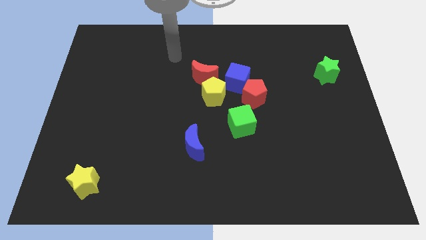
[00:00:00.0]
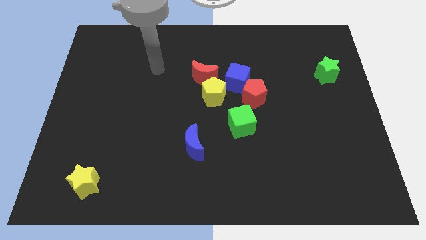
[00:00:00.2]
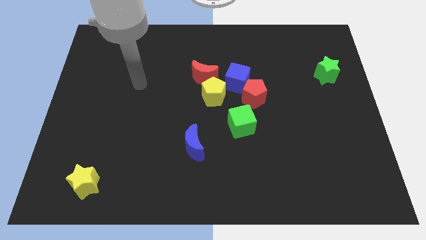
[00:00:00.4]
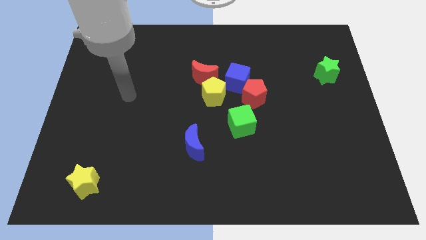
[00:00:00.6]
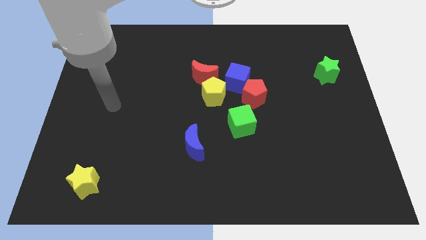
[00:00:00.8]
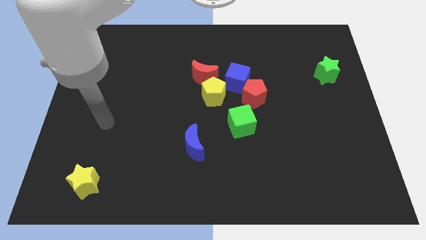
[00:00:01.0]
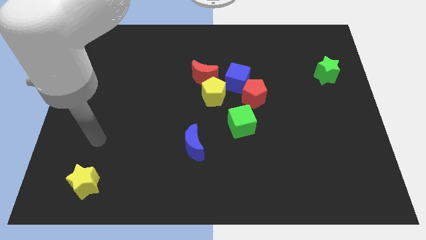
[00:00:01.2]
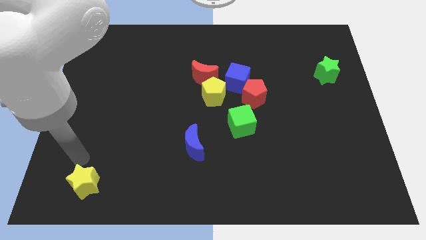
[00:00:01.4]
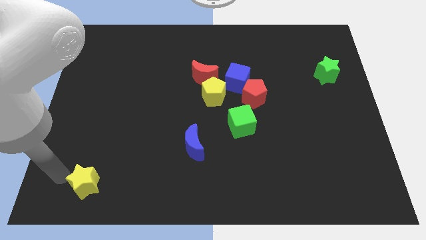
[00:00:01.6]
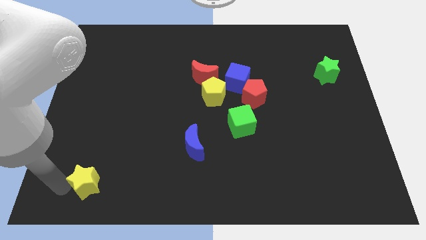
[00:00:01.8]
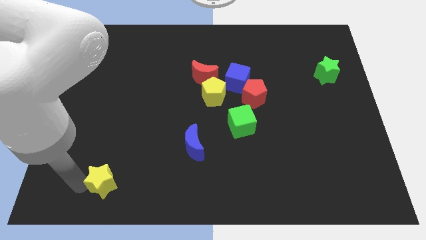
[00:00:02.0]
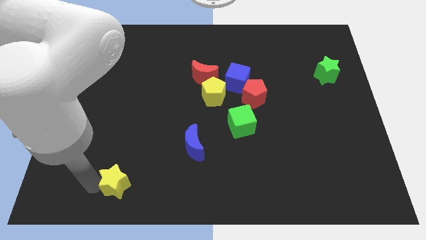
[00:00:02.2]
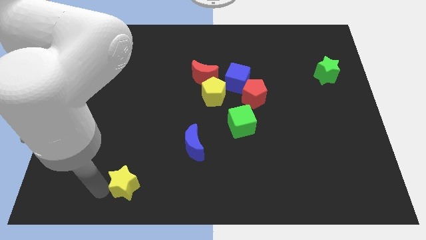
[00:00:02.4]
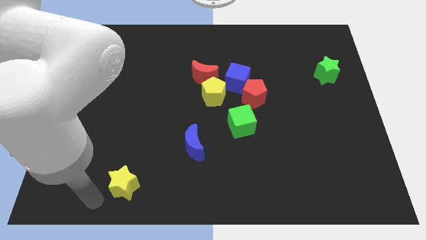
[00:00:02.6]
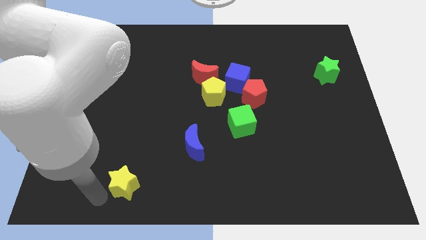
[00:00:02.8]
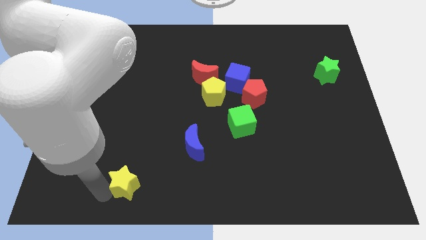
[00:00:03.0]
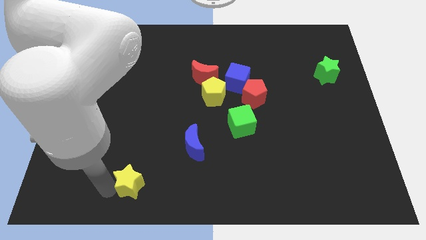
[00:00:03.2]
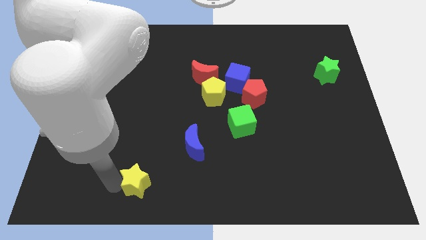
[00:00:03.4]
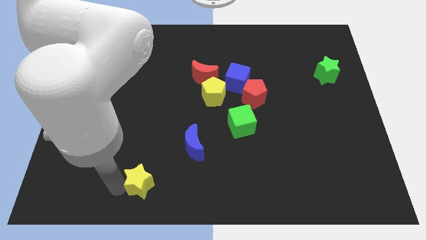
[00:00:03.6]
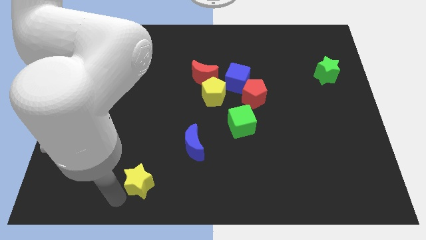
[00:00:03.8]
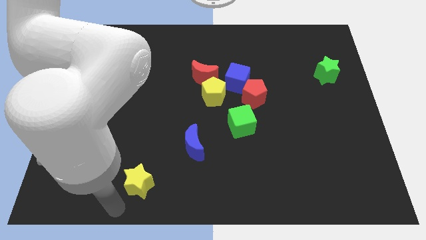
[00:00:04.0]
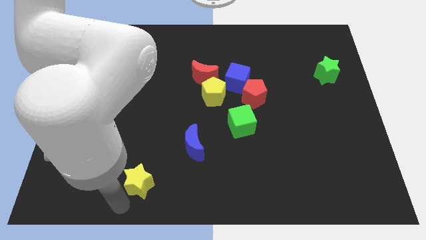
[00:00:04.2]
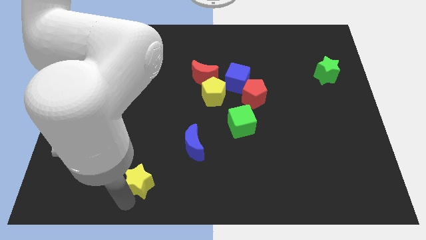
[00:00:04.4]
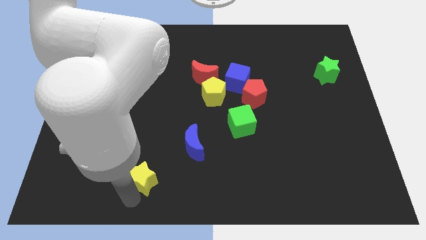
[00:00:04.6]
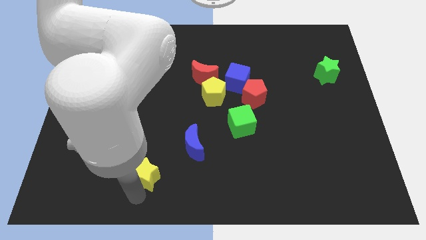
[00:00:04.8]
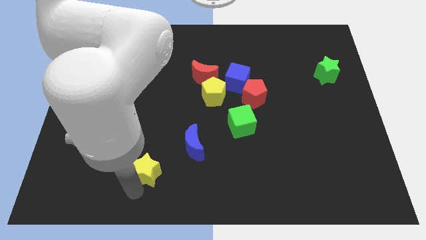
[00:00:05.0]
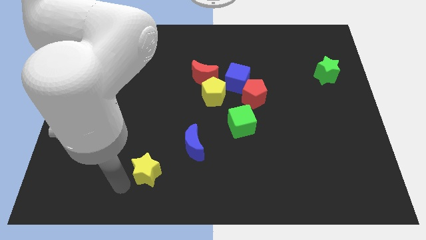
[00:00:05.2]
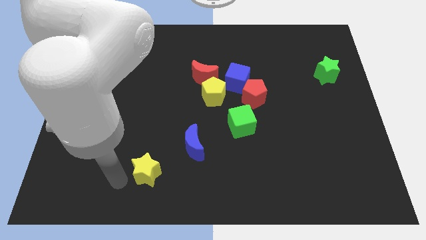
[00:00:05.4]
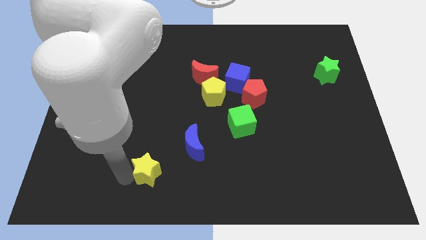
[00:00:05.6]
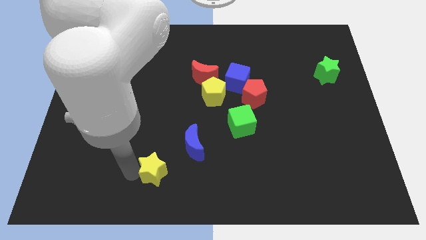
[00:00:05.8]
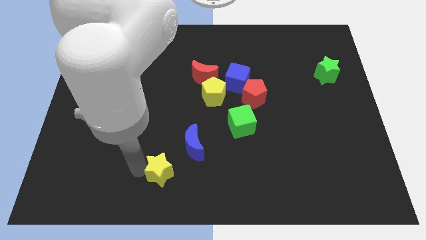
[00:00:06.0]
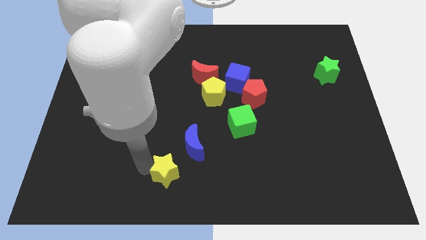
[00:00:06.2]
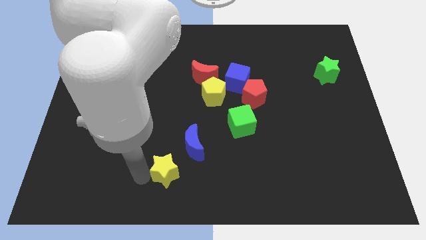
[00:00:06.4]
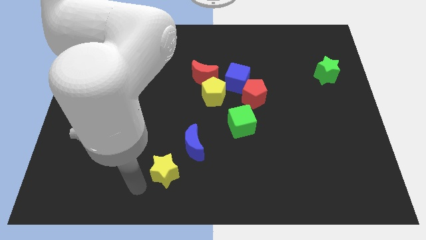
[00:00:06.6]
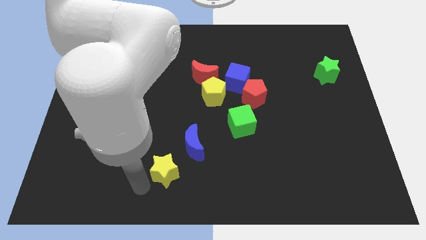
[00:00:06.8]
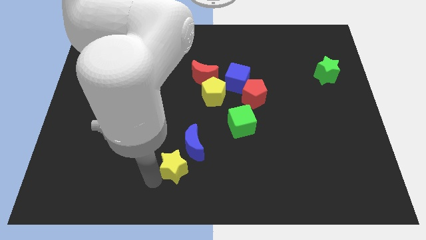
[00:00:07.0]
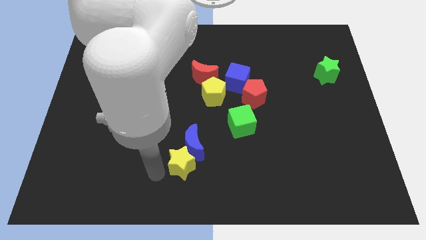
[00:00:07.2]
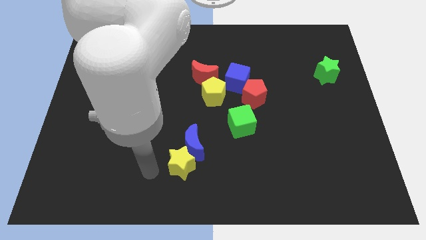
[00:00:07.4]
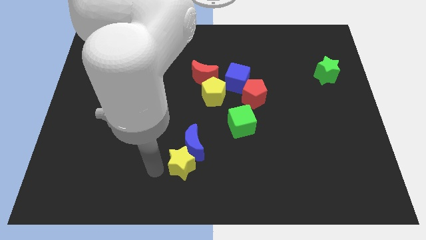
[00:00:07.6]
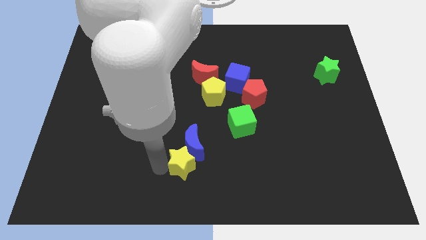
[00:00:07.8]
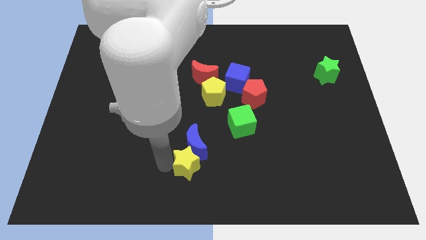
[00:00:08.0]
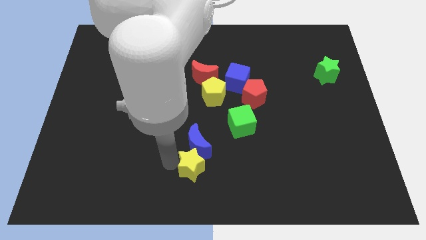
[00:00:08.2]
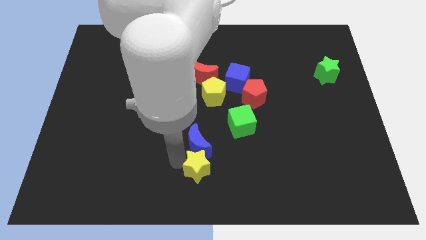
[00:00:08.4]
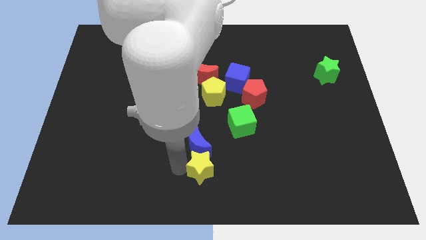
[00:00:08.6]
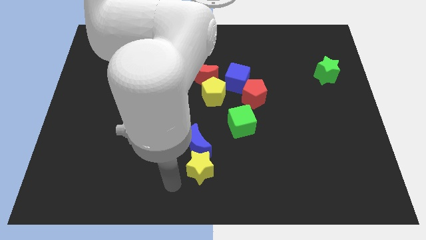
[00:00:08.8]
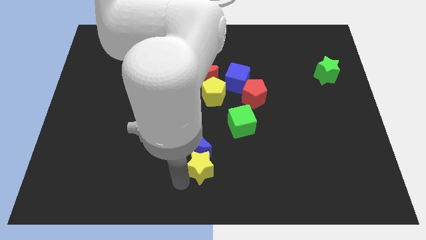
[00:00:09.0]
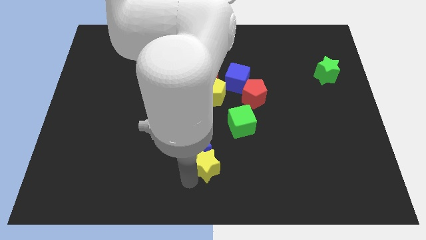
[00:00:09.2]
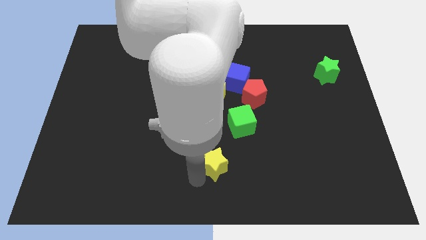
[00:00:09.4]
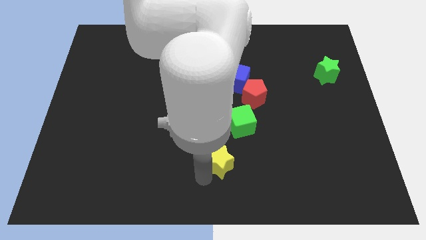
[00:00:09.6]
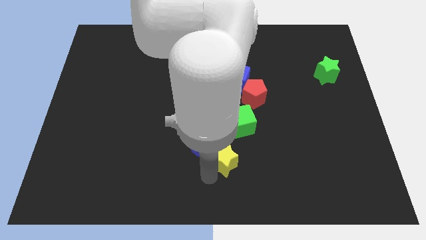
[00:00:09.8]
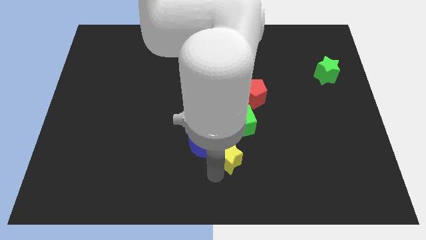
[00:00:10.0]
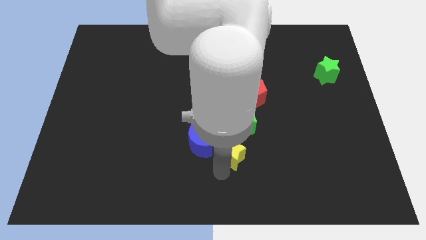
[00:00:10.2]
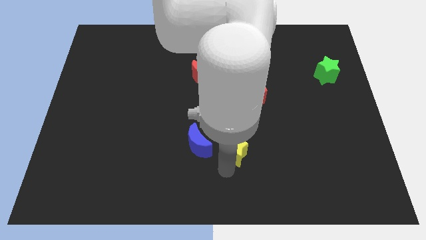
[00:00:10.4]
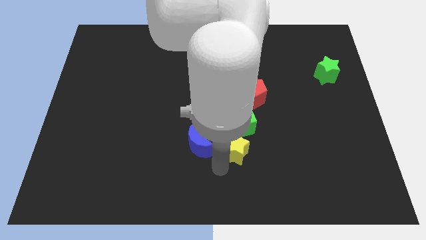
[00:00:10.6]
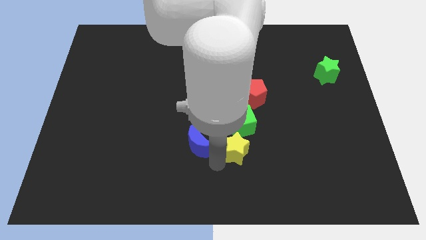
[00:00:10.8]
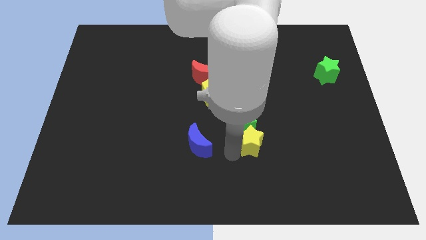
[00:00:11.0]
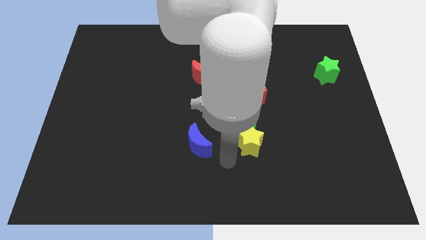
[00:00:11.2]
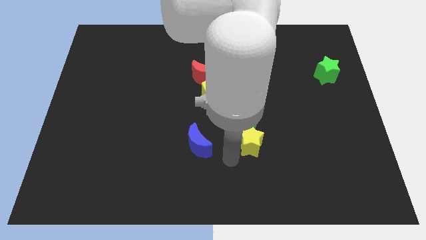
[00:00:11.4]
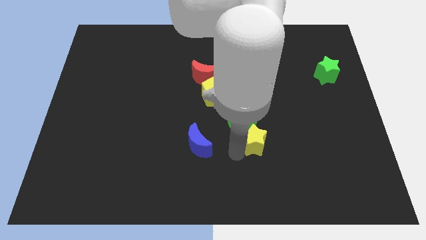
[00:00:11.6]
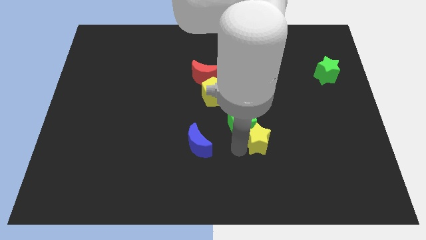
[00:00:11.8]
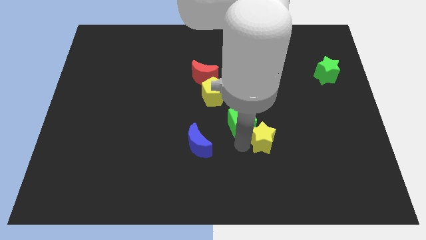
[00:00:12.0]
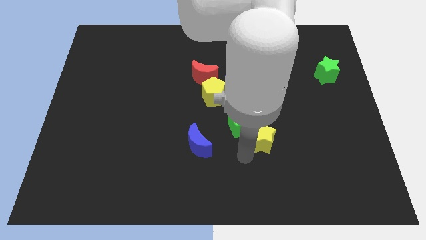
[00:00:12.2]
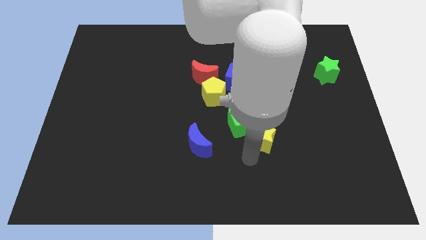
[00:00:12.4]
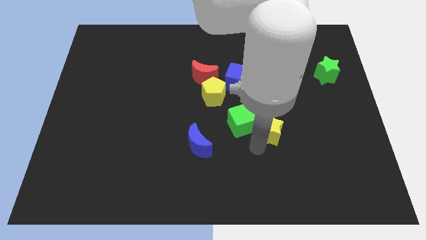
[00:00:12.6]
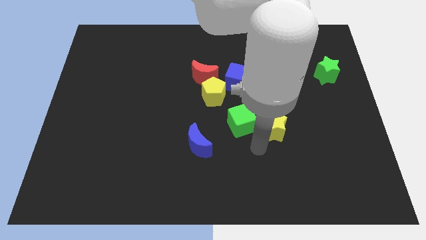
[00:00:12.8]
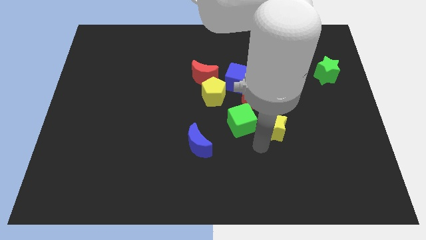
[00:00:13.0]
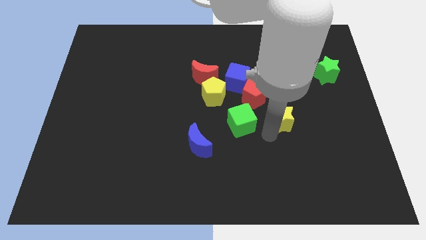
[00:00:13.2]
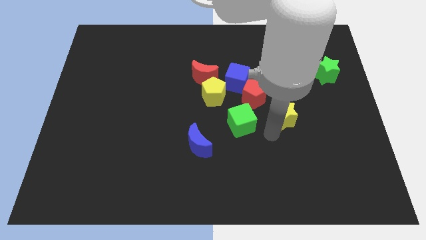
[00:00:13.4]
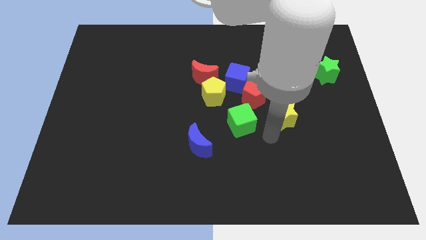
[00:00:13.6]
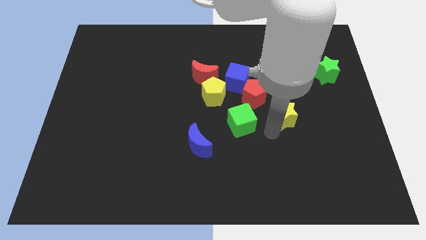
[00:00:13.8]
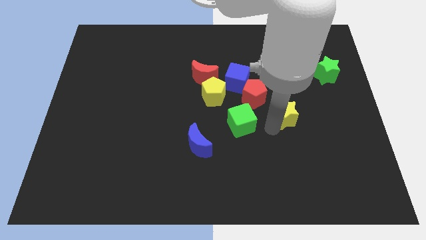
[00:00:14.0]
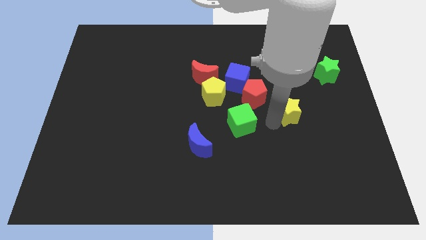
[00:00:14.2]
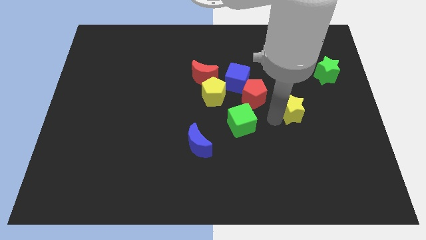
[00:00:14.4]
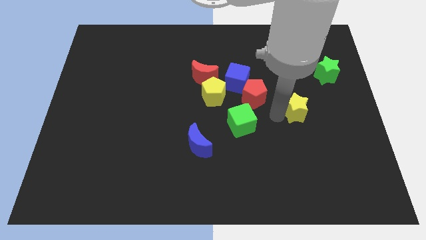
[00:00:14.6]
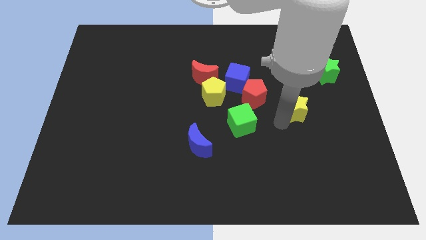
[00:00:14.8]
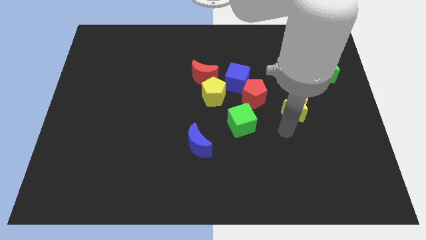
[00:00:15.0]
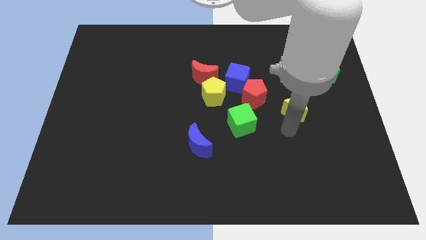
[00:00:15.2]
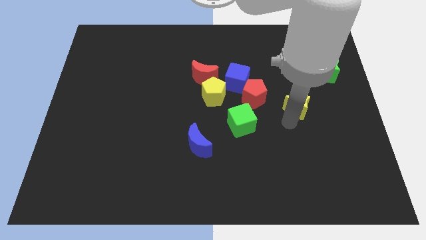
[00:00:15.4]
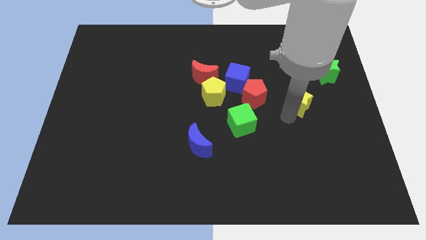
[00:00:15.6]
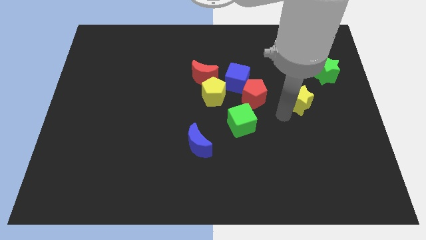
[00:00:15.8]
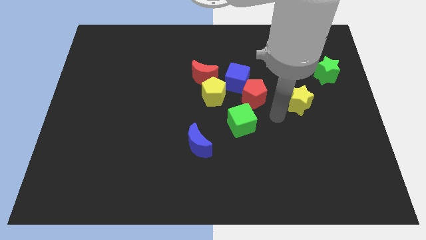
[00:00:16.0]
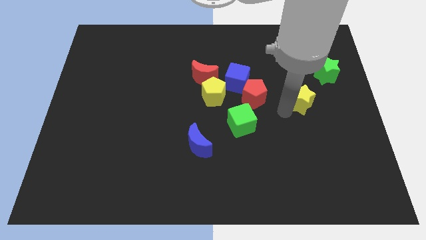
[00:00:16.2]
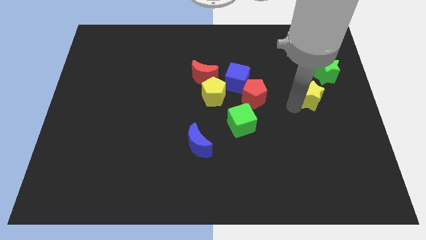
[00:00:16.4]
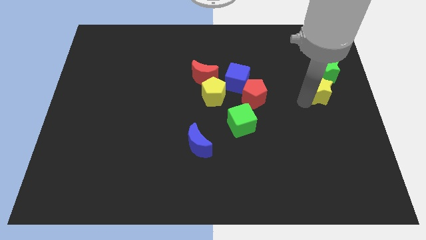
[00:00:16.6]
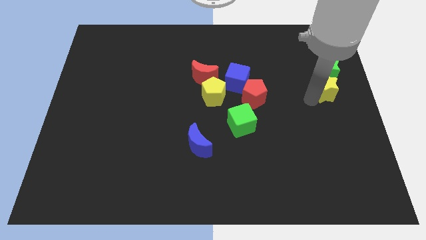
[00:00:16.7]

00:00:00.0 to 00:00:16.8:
push the yellow star towards the green star
